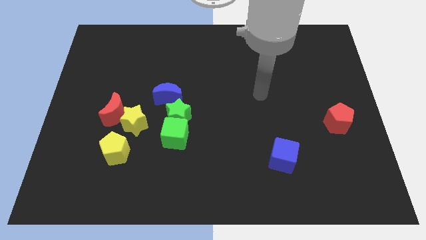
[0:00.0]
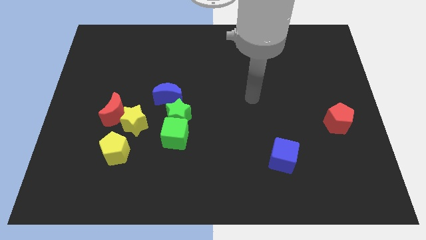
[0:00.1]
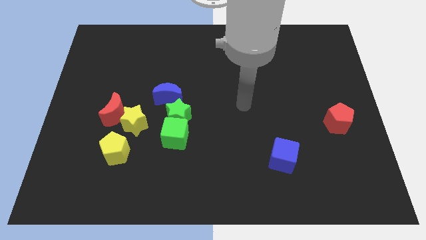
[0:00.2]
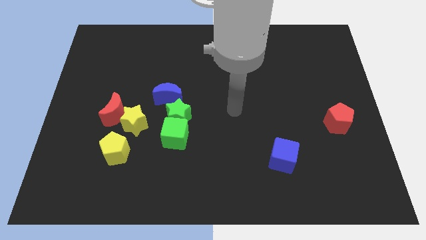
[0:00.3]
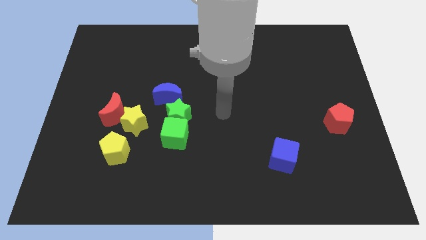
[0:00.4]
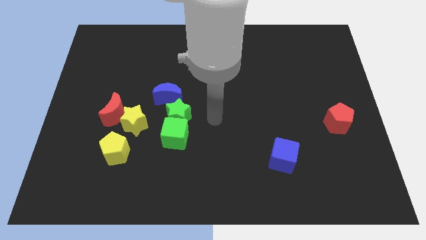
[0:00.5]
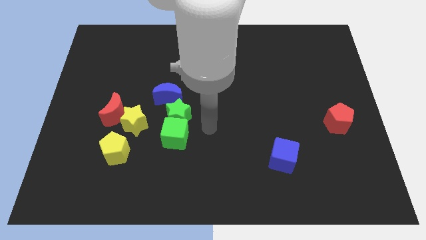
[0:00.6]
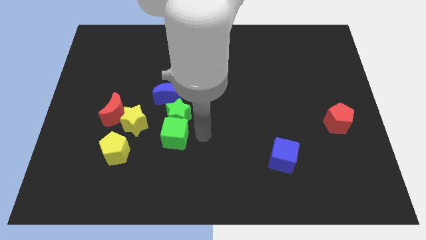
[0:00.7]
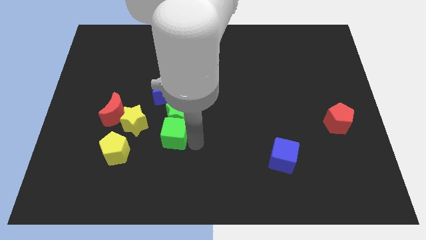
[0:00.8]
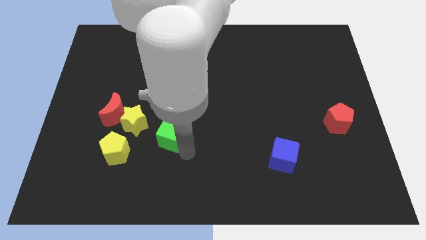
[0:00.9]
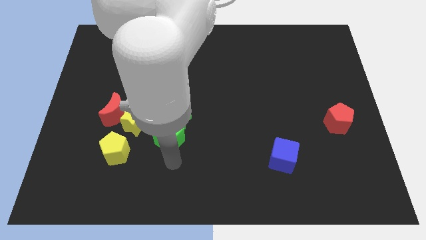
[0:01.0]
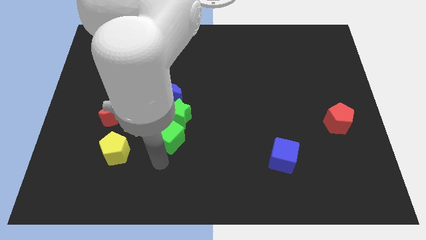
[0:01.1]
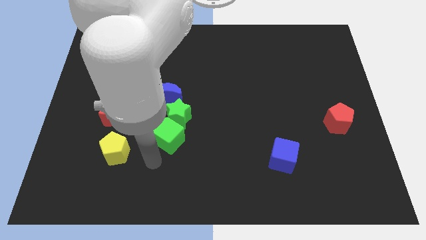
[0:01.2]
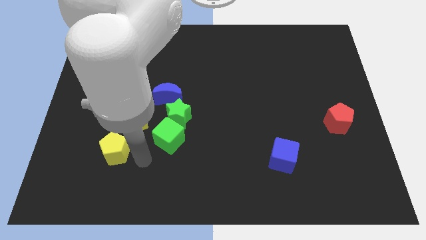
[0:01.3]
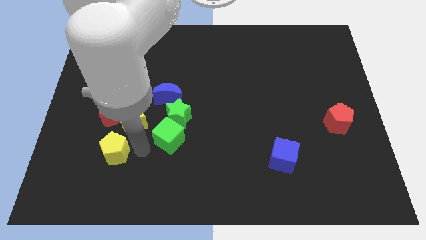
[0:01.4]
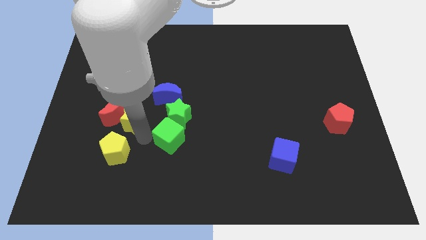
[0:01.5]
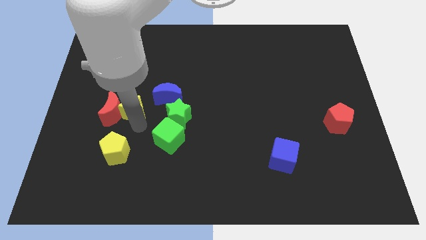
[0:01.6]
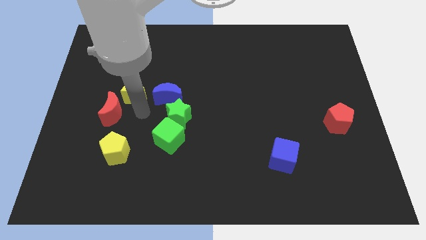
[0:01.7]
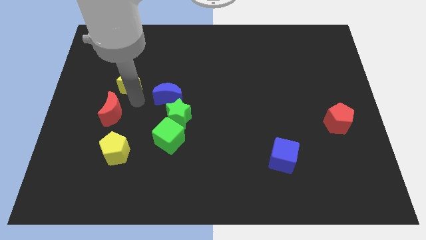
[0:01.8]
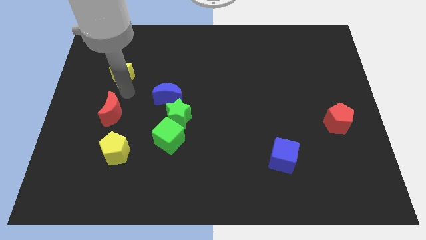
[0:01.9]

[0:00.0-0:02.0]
move the red moon away from the yellow star

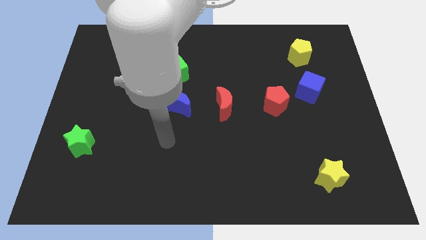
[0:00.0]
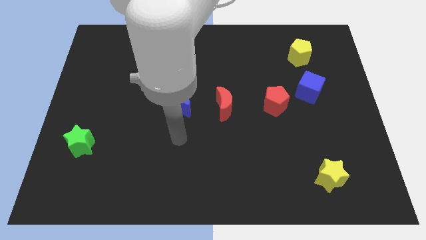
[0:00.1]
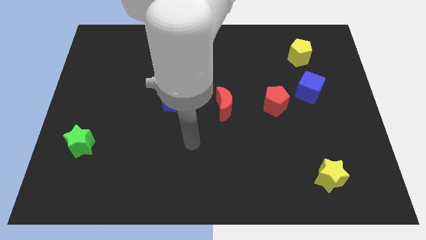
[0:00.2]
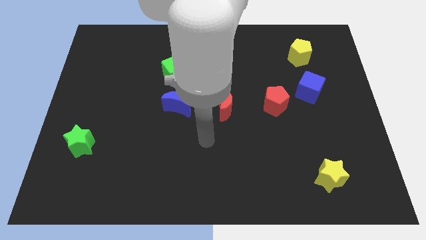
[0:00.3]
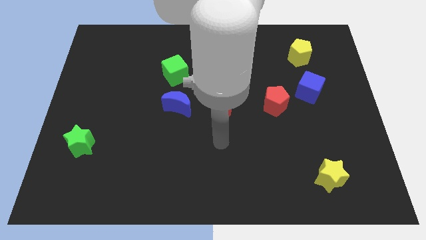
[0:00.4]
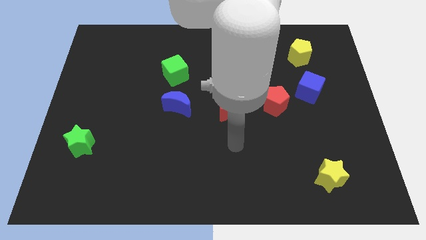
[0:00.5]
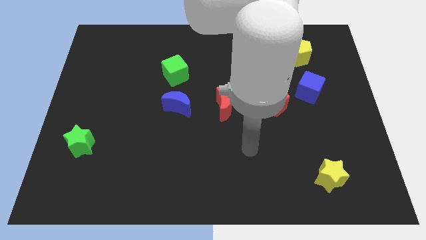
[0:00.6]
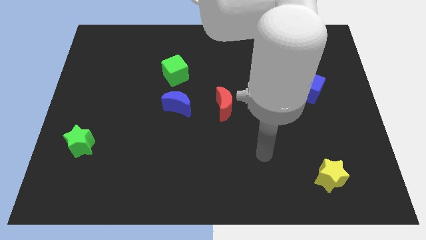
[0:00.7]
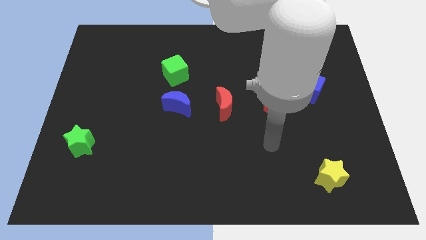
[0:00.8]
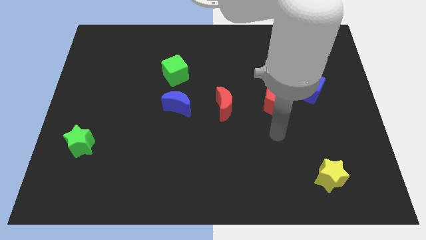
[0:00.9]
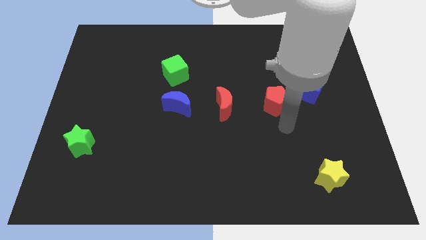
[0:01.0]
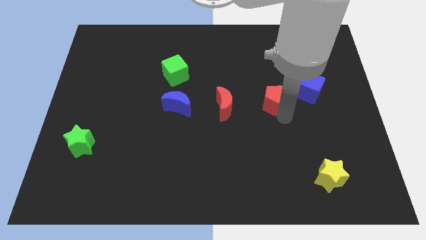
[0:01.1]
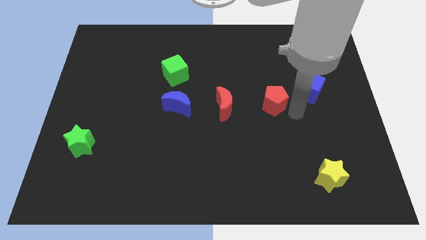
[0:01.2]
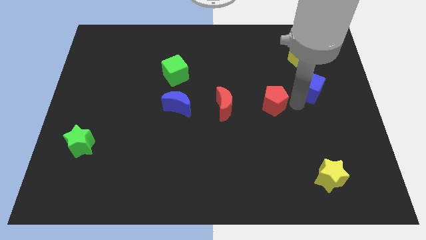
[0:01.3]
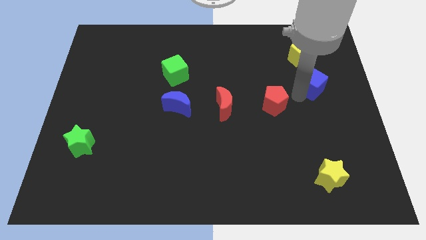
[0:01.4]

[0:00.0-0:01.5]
move the red pentagon away from the blue cube

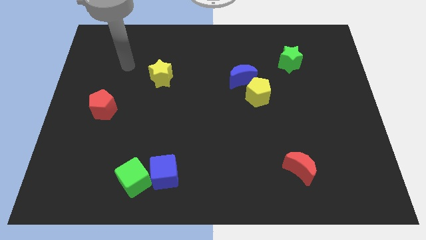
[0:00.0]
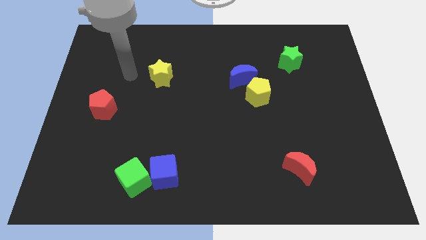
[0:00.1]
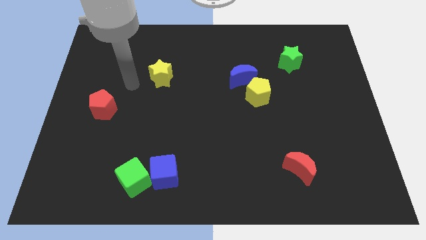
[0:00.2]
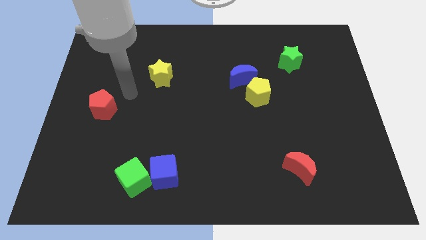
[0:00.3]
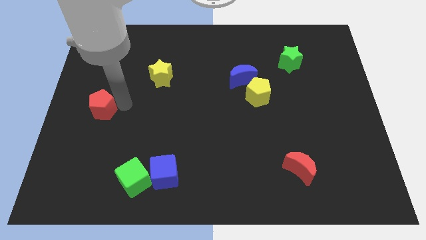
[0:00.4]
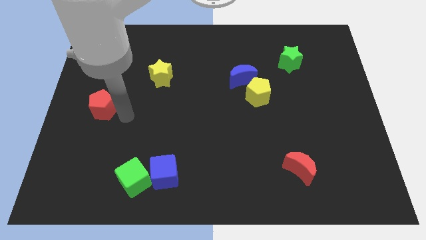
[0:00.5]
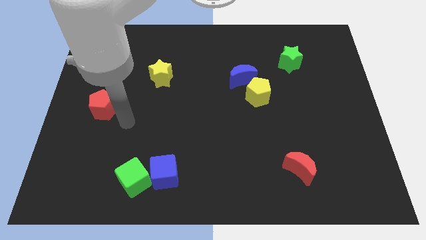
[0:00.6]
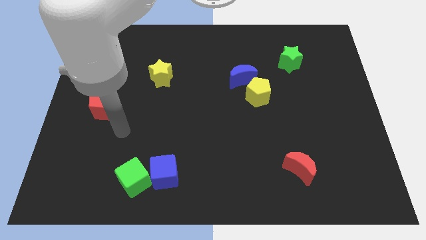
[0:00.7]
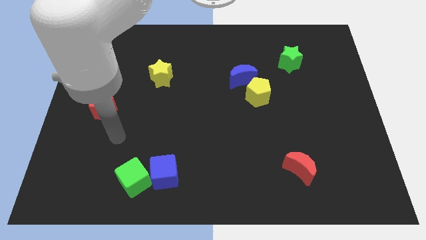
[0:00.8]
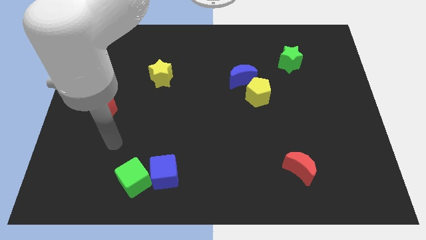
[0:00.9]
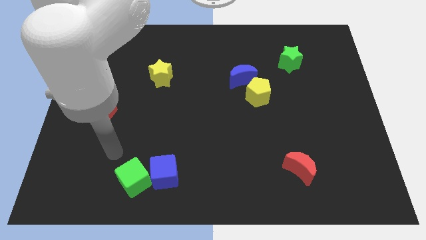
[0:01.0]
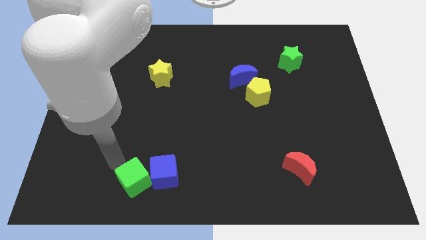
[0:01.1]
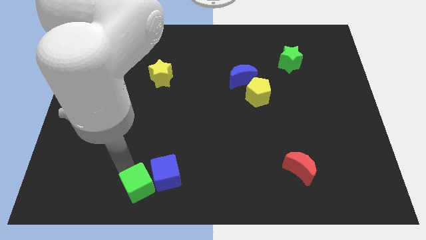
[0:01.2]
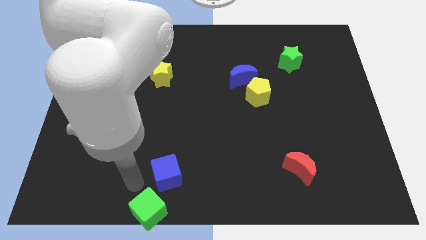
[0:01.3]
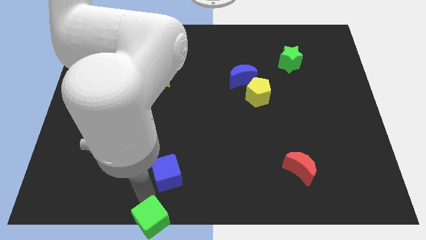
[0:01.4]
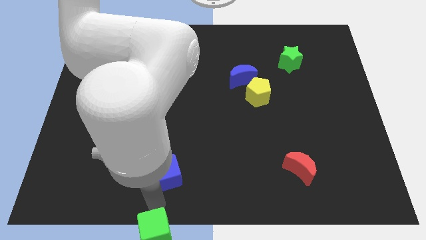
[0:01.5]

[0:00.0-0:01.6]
separate the blue cube from the green cube

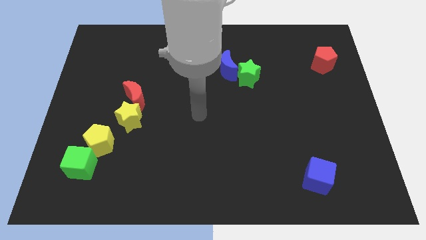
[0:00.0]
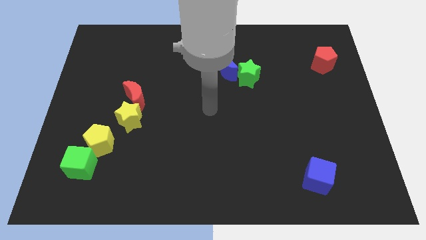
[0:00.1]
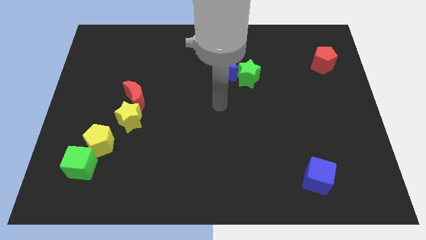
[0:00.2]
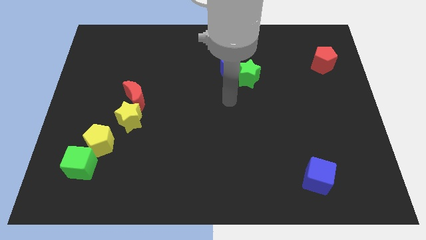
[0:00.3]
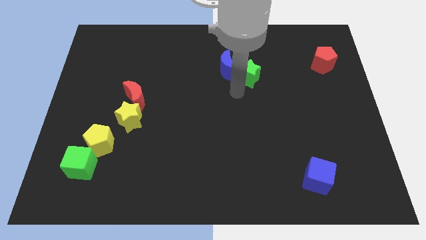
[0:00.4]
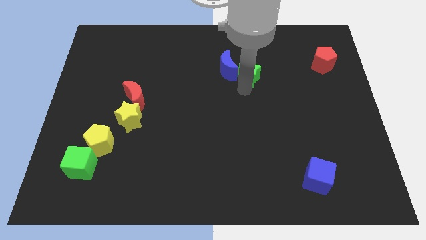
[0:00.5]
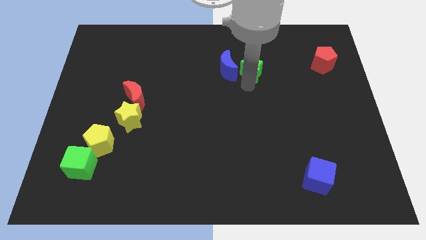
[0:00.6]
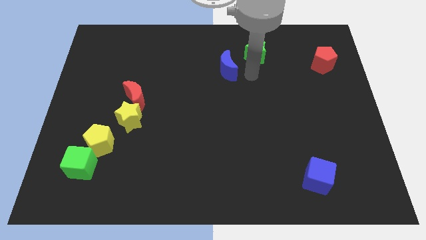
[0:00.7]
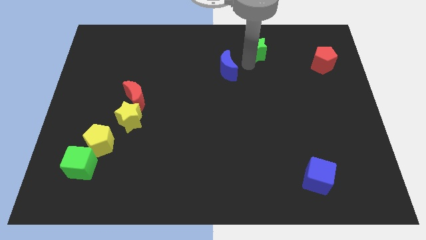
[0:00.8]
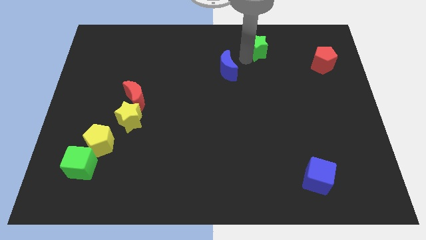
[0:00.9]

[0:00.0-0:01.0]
pull the blue moon apart from the green star

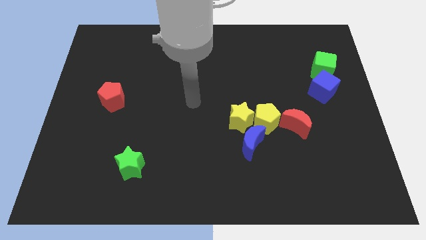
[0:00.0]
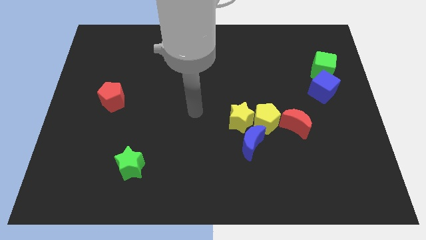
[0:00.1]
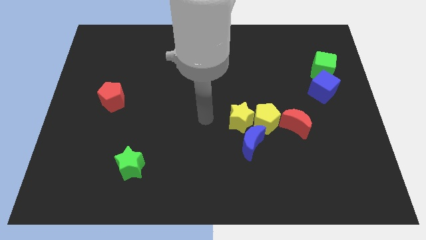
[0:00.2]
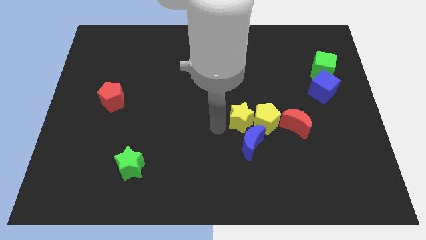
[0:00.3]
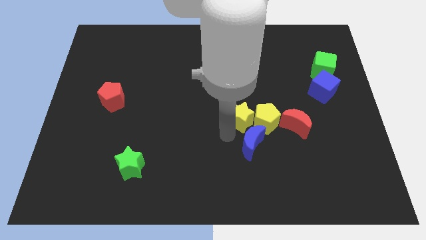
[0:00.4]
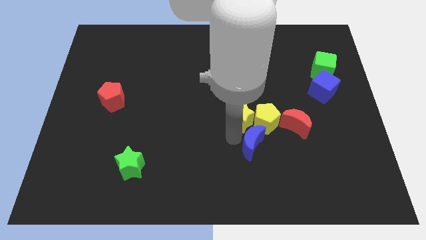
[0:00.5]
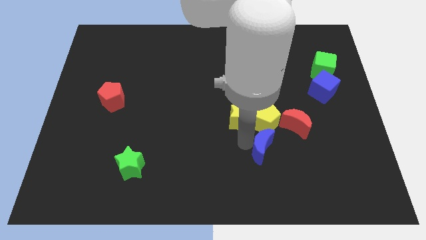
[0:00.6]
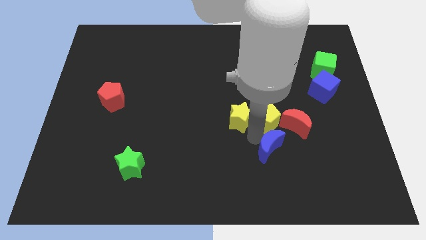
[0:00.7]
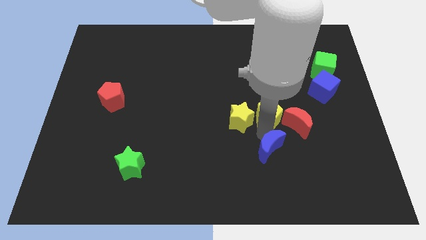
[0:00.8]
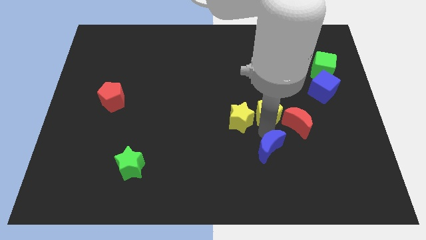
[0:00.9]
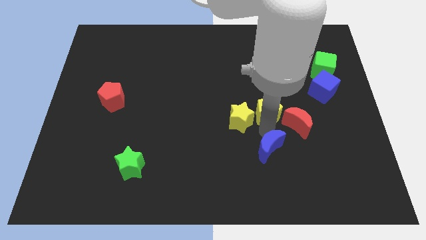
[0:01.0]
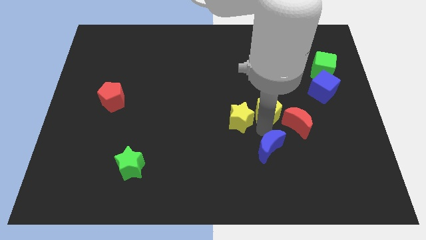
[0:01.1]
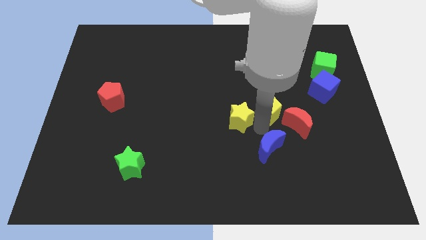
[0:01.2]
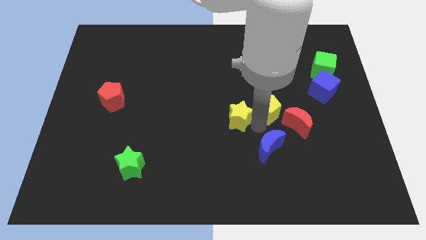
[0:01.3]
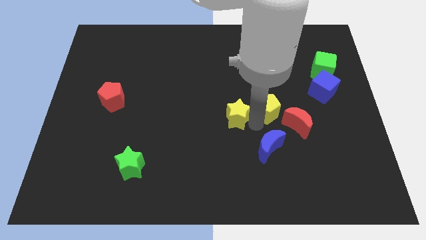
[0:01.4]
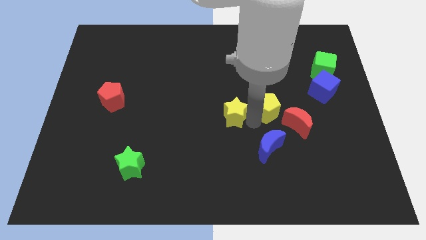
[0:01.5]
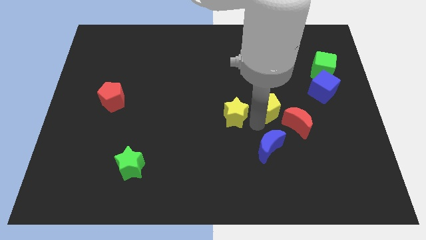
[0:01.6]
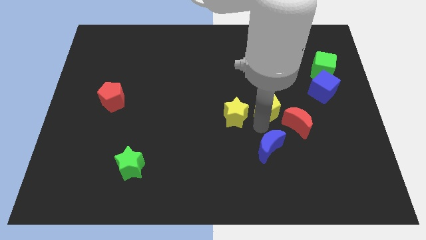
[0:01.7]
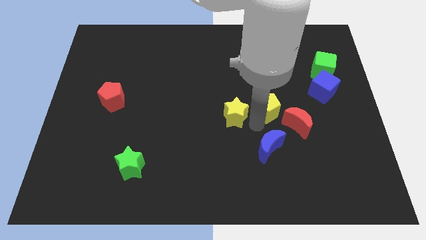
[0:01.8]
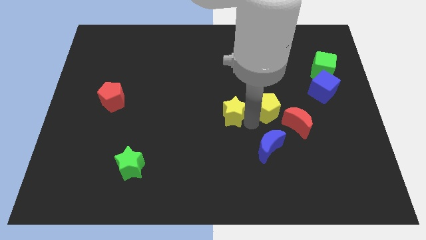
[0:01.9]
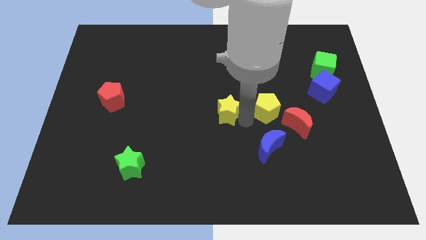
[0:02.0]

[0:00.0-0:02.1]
separate the yellow star from the yellow pentagon and blue moon

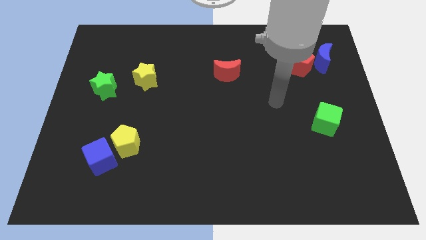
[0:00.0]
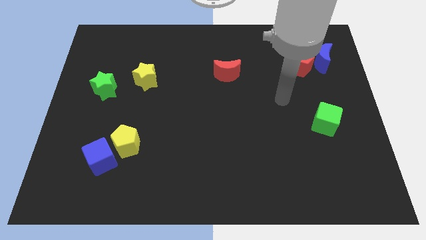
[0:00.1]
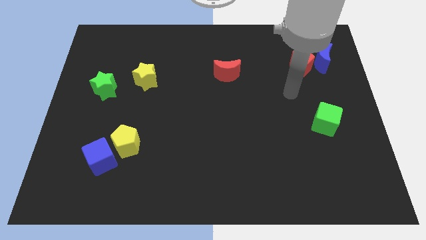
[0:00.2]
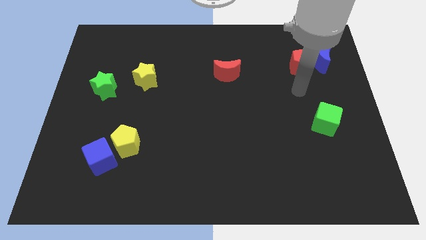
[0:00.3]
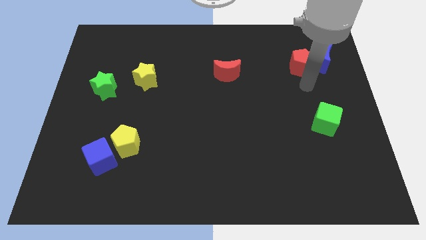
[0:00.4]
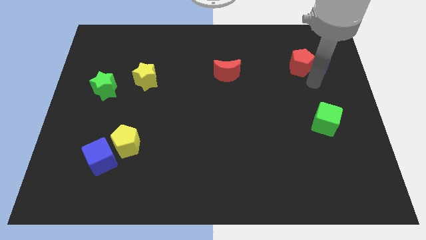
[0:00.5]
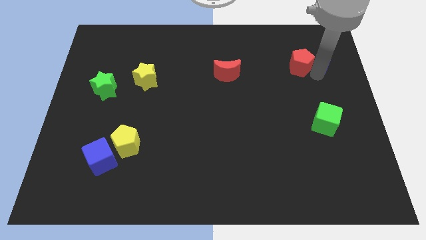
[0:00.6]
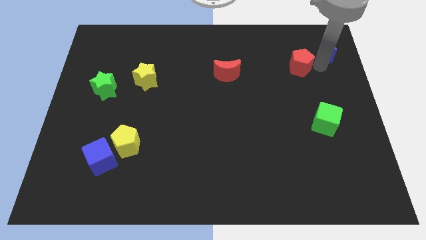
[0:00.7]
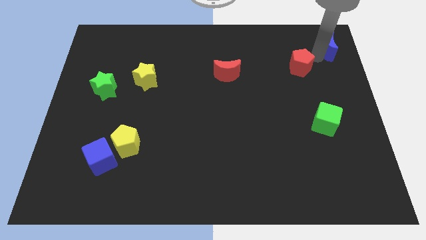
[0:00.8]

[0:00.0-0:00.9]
separate the red pentagon from the blue moon

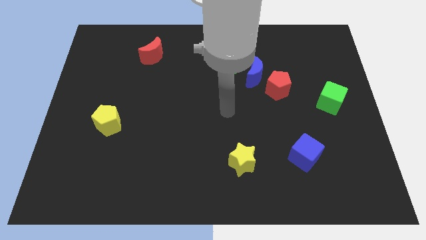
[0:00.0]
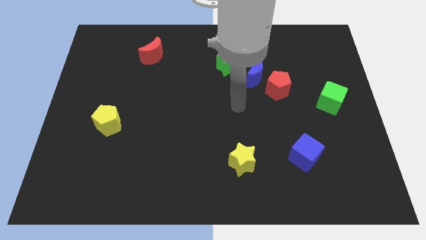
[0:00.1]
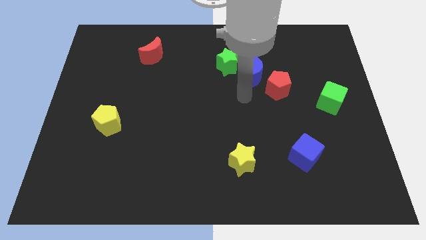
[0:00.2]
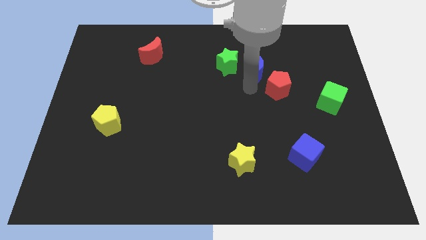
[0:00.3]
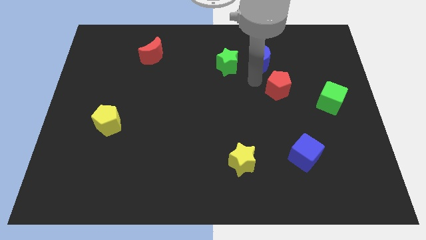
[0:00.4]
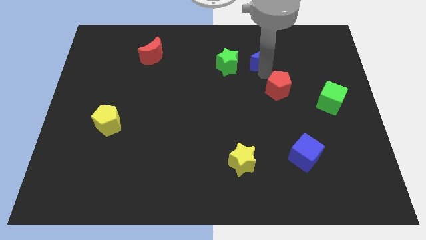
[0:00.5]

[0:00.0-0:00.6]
move the red pentagon away from the blue moon
